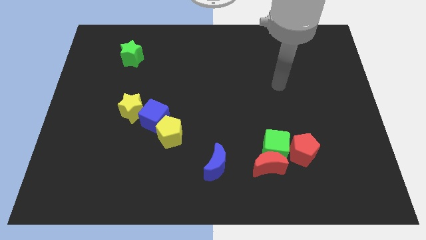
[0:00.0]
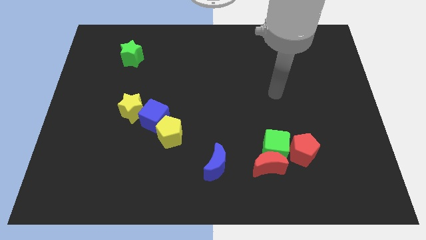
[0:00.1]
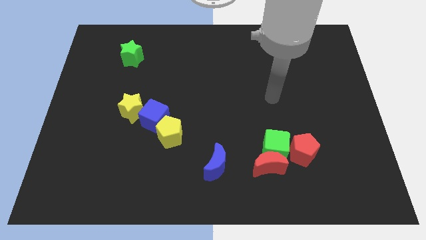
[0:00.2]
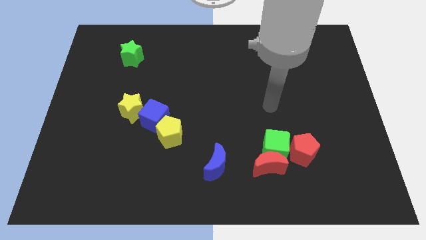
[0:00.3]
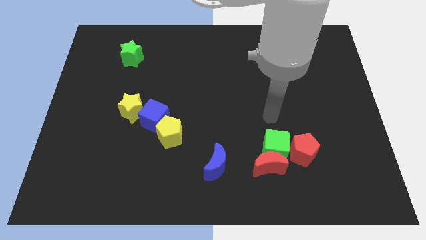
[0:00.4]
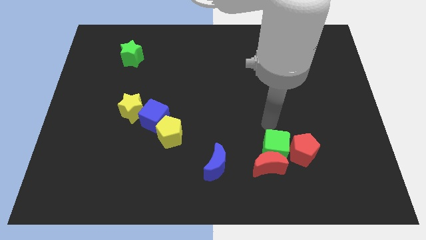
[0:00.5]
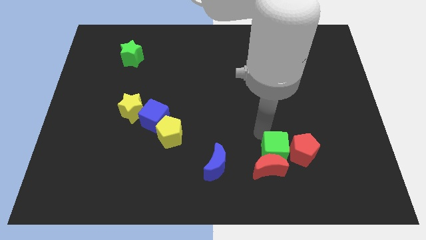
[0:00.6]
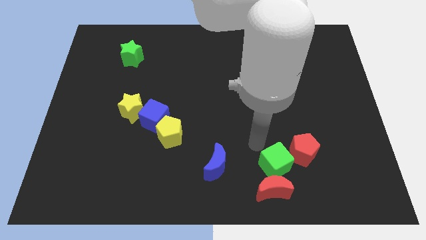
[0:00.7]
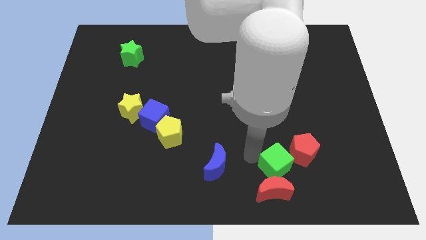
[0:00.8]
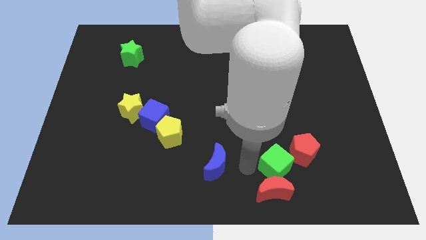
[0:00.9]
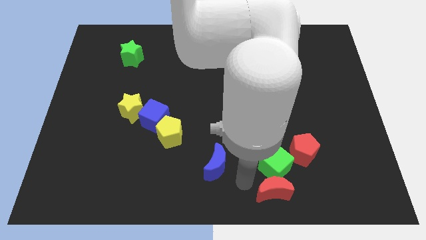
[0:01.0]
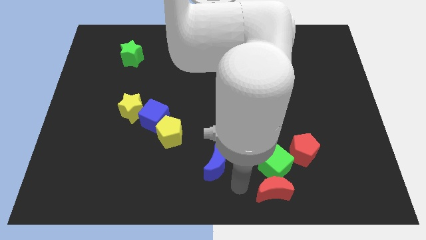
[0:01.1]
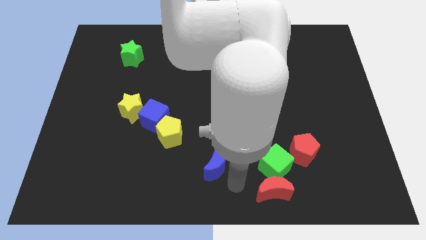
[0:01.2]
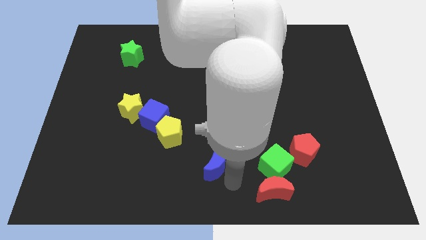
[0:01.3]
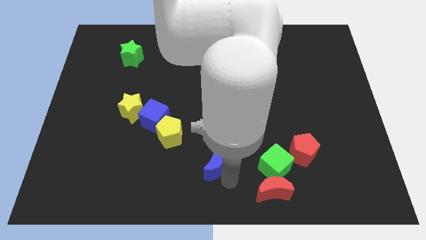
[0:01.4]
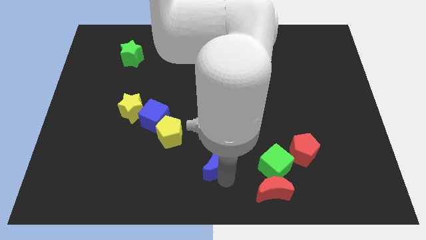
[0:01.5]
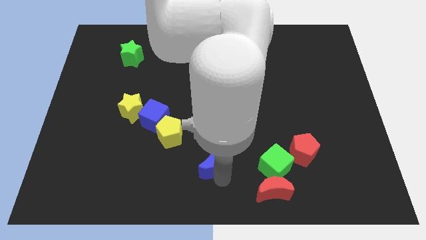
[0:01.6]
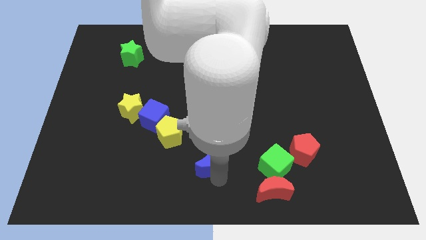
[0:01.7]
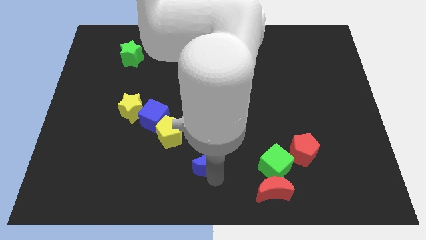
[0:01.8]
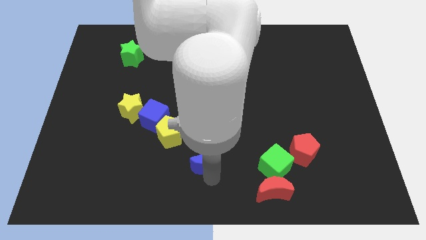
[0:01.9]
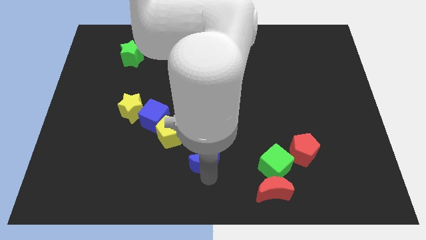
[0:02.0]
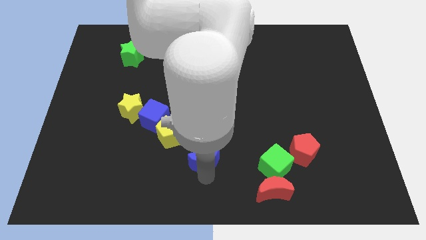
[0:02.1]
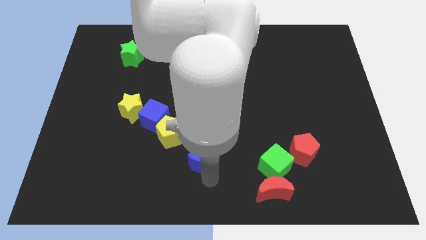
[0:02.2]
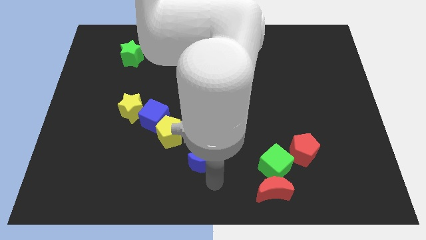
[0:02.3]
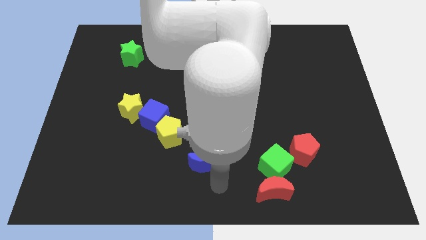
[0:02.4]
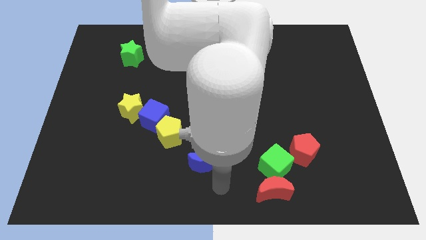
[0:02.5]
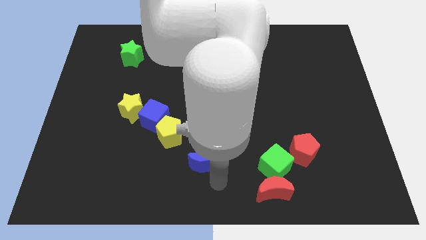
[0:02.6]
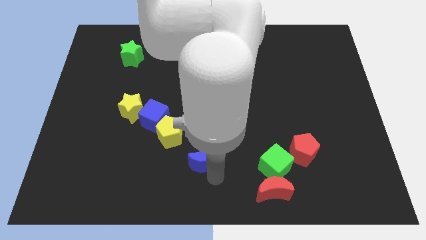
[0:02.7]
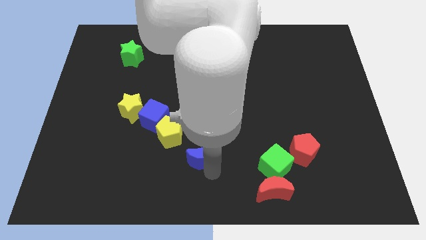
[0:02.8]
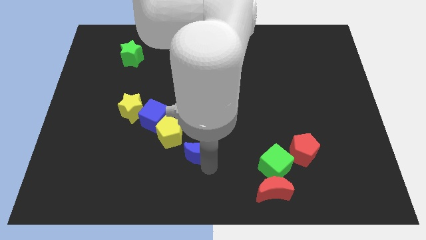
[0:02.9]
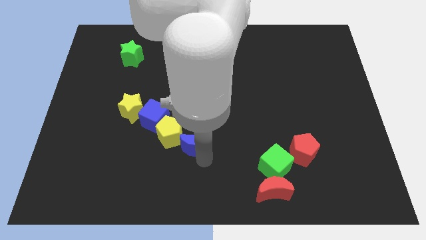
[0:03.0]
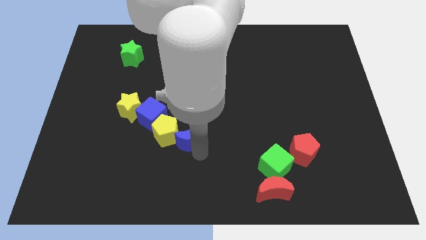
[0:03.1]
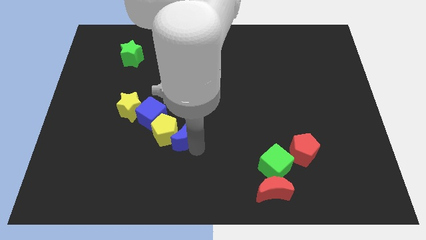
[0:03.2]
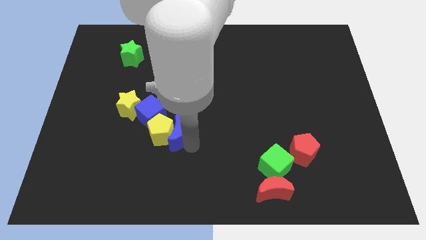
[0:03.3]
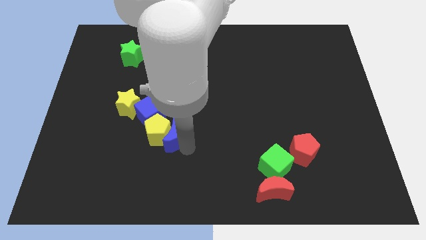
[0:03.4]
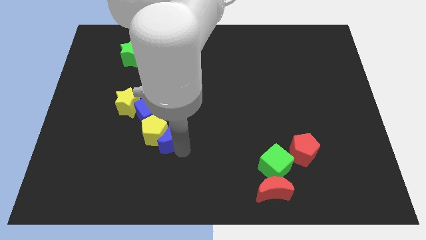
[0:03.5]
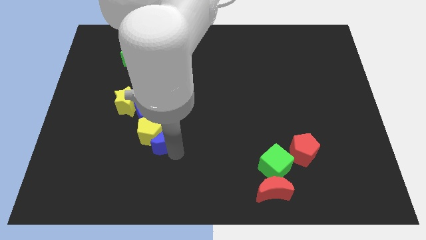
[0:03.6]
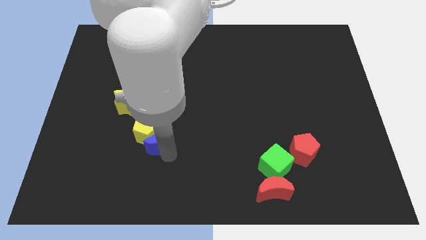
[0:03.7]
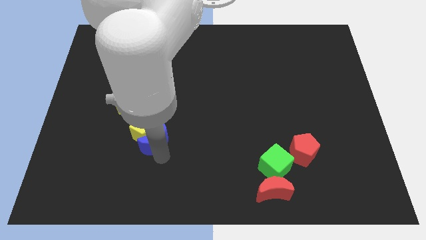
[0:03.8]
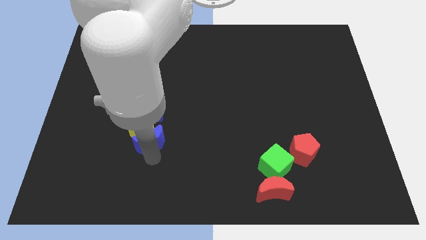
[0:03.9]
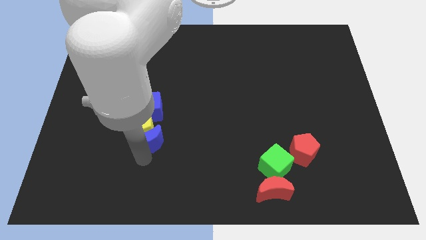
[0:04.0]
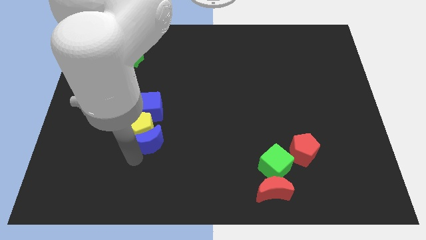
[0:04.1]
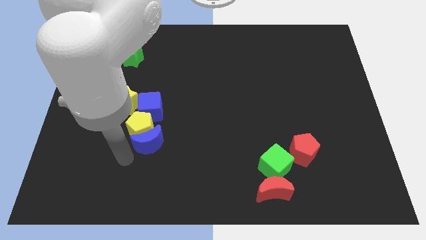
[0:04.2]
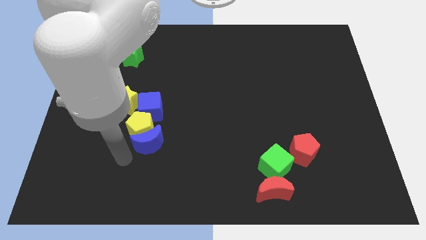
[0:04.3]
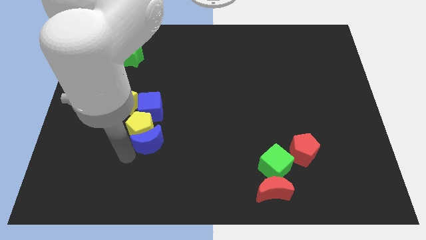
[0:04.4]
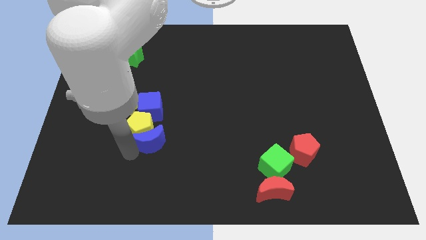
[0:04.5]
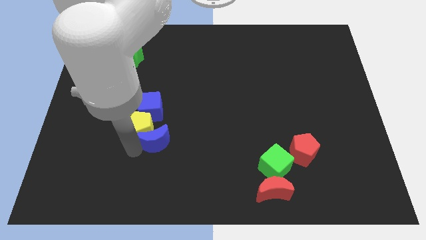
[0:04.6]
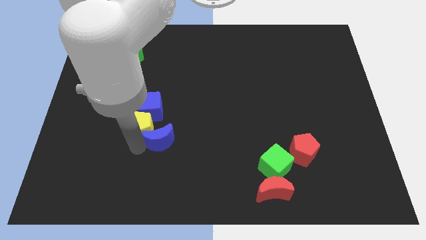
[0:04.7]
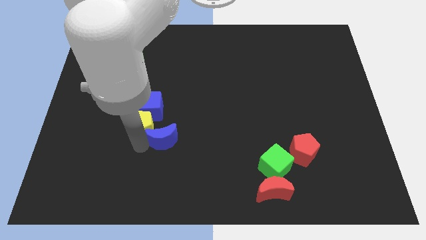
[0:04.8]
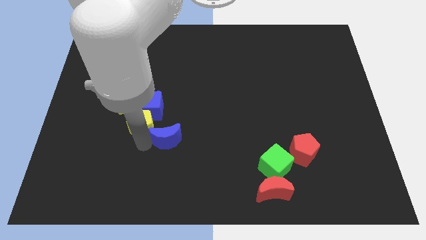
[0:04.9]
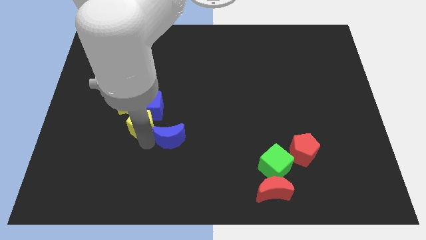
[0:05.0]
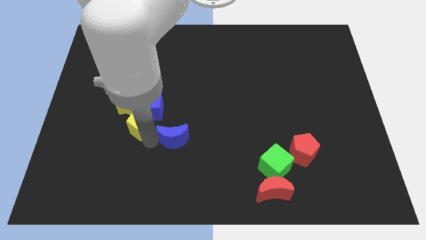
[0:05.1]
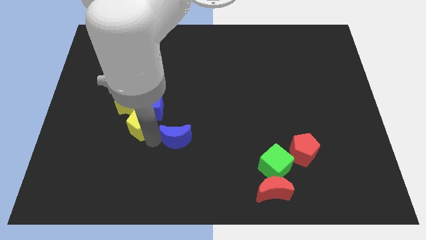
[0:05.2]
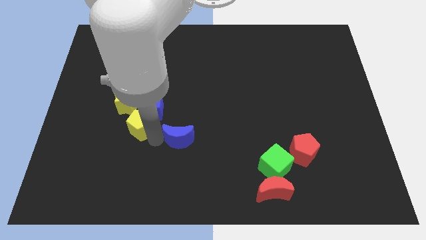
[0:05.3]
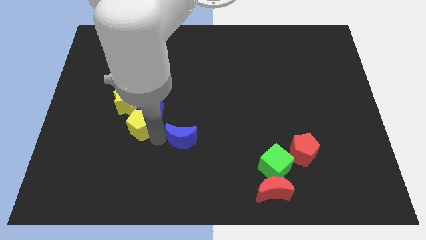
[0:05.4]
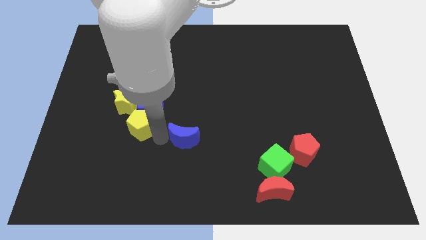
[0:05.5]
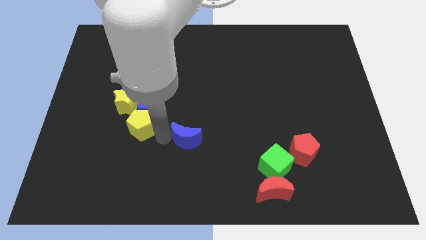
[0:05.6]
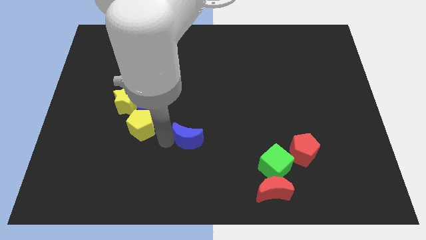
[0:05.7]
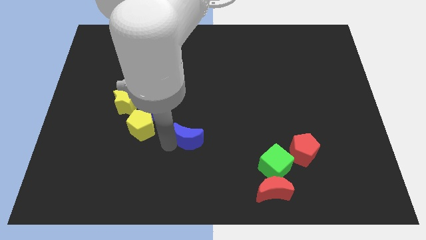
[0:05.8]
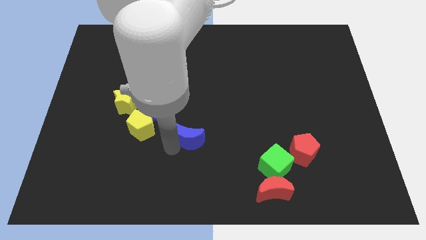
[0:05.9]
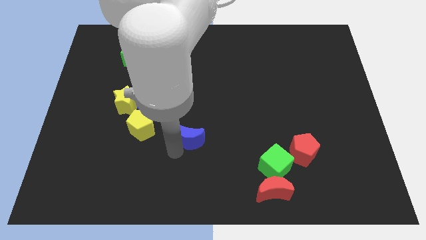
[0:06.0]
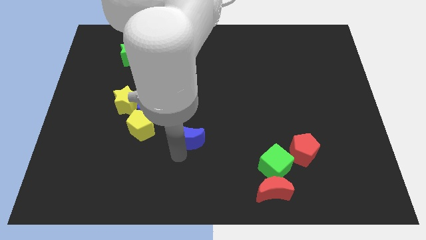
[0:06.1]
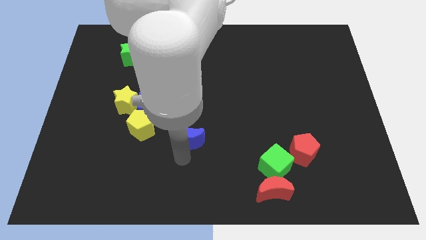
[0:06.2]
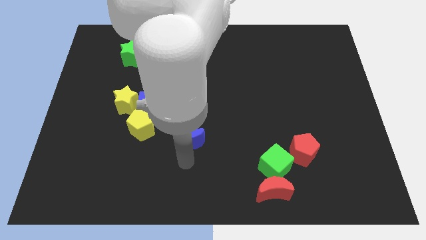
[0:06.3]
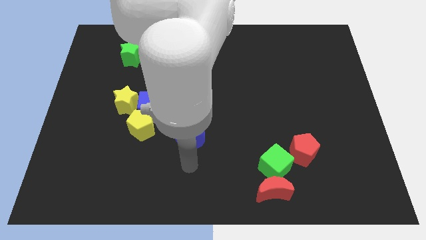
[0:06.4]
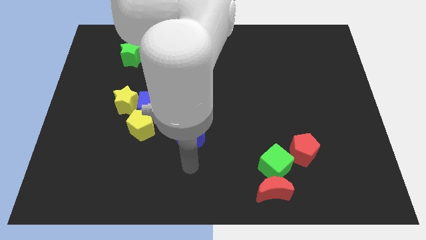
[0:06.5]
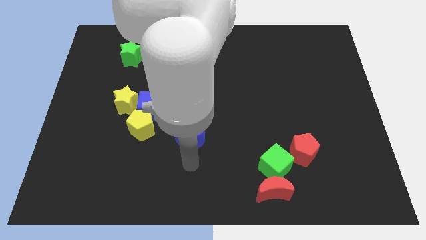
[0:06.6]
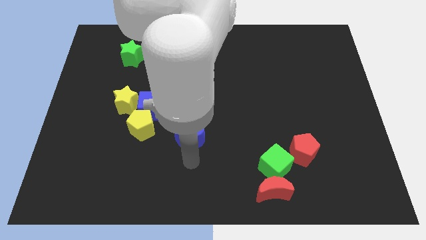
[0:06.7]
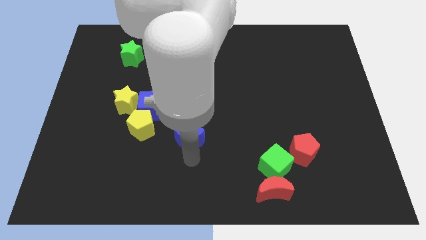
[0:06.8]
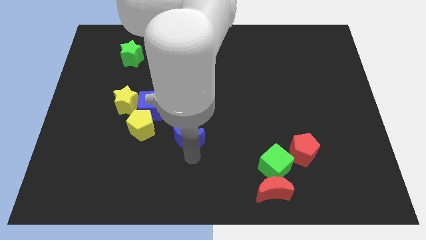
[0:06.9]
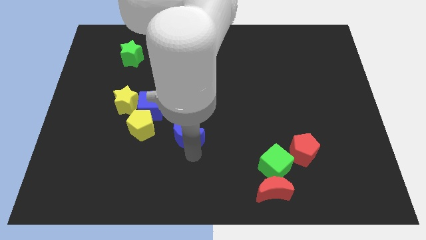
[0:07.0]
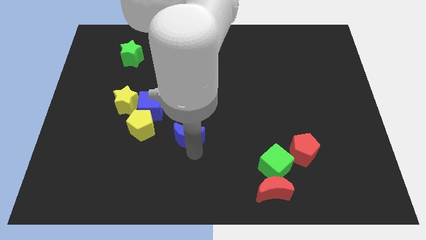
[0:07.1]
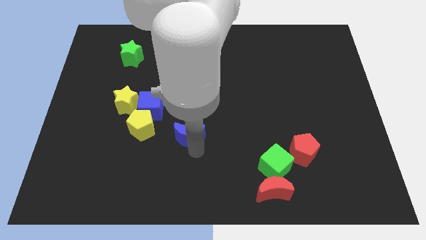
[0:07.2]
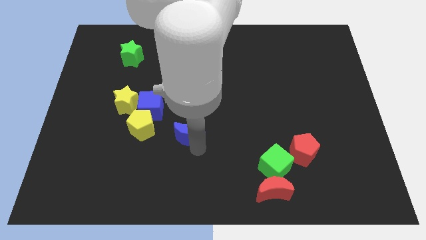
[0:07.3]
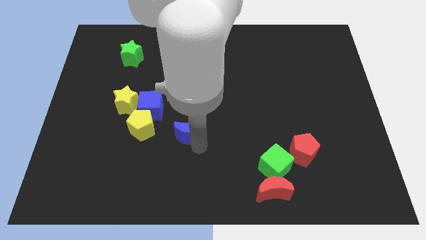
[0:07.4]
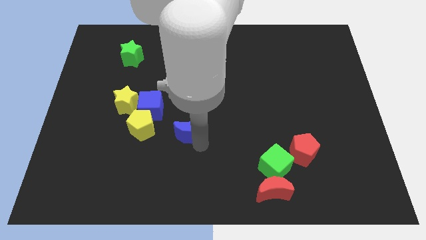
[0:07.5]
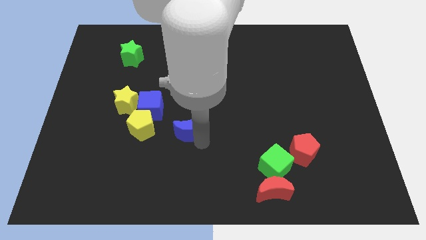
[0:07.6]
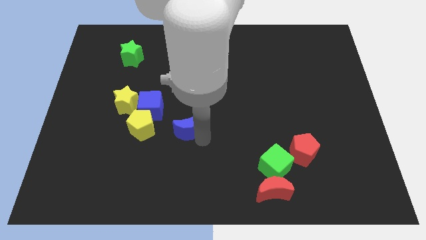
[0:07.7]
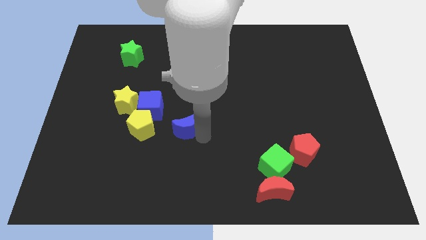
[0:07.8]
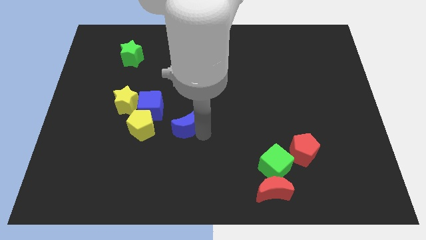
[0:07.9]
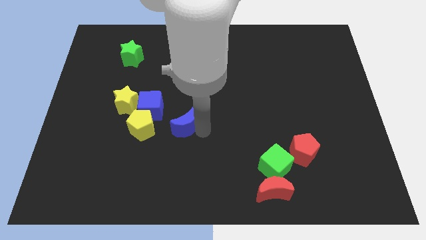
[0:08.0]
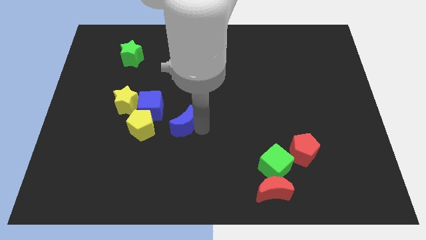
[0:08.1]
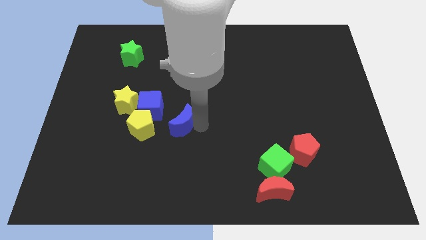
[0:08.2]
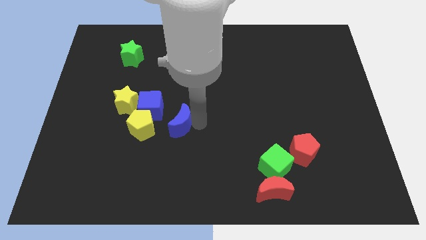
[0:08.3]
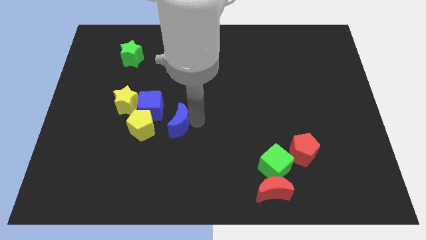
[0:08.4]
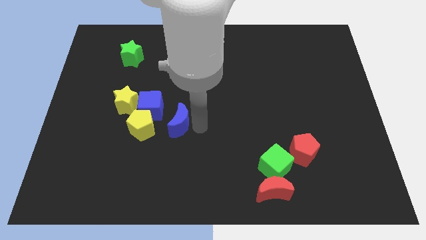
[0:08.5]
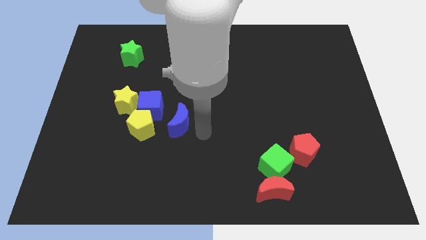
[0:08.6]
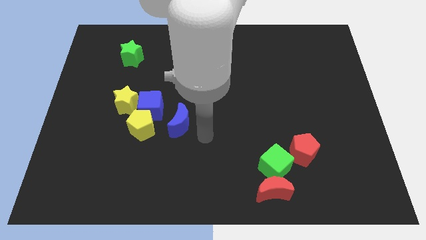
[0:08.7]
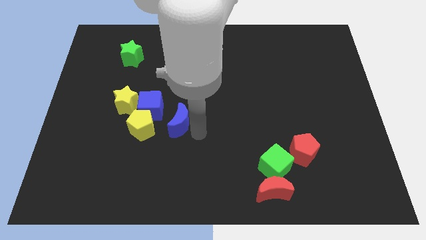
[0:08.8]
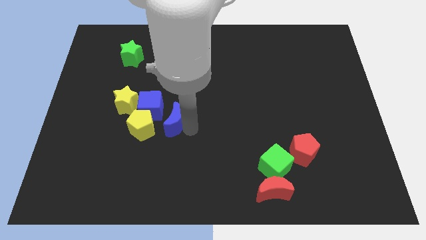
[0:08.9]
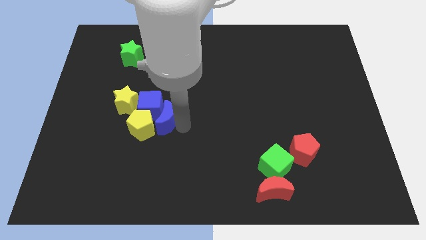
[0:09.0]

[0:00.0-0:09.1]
move the blue moon to the blue cube
